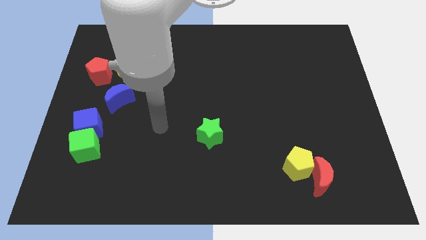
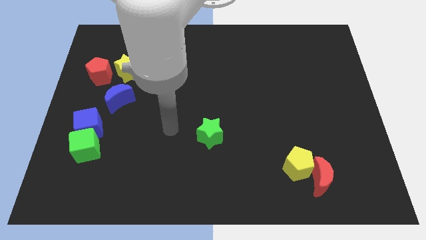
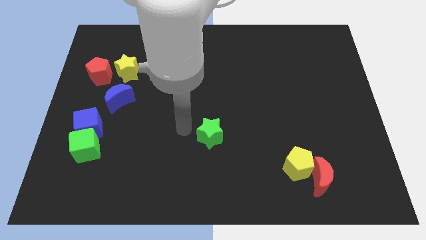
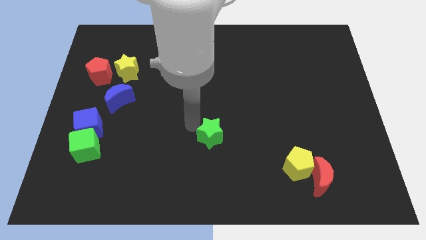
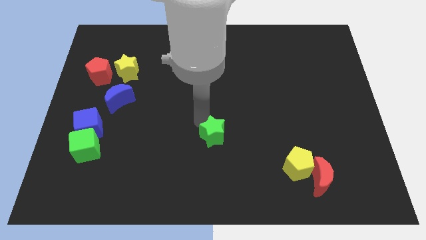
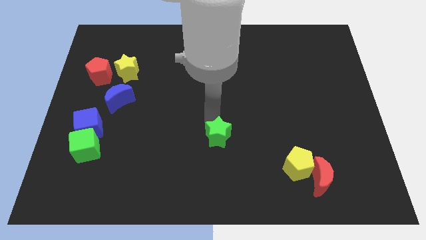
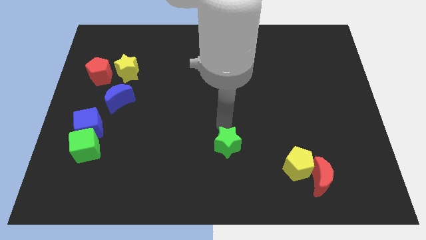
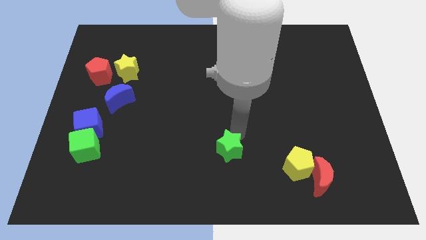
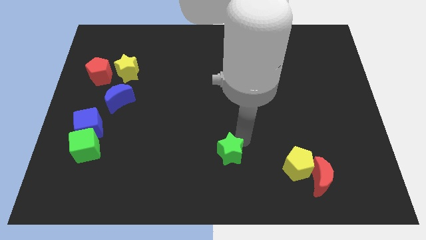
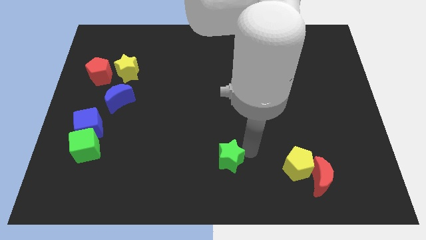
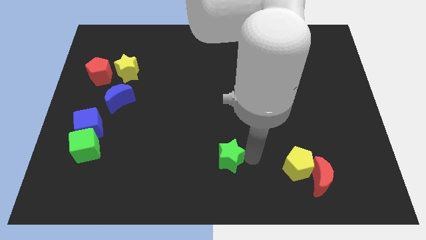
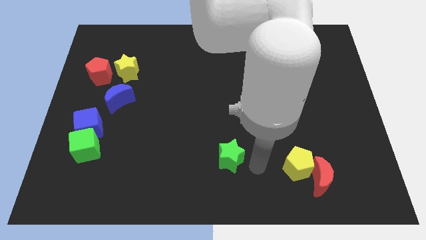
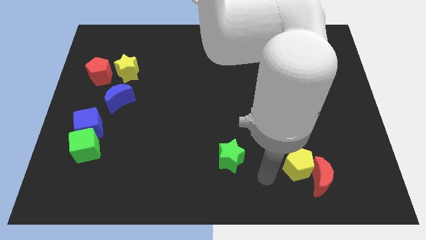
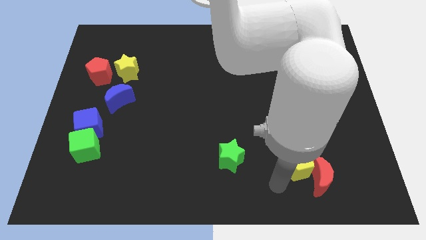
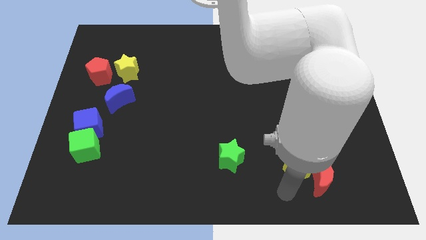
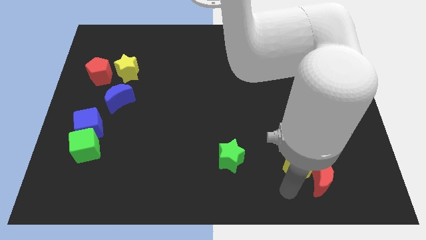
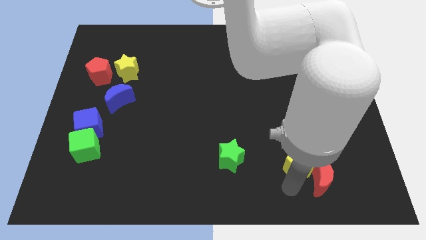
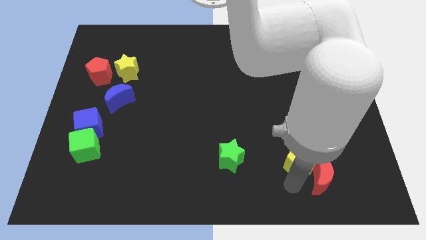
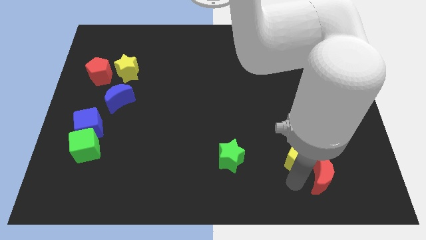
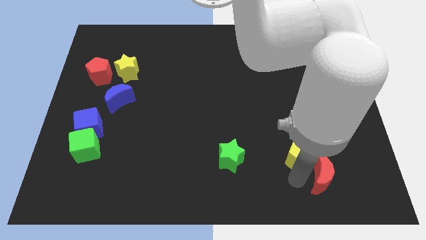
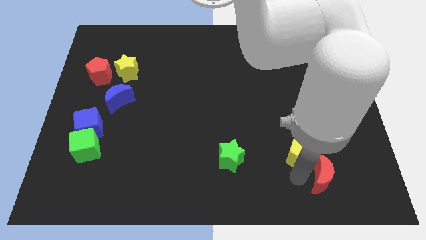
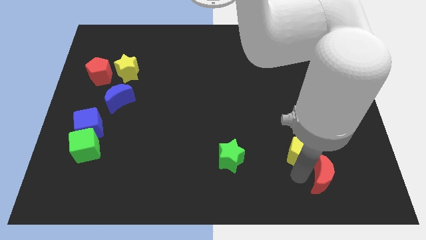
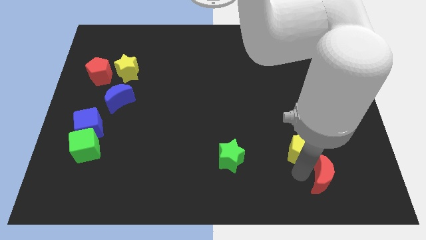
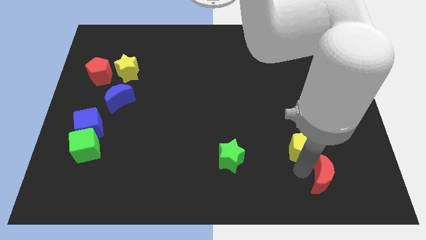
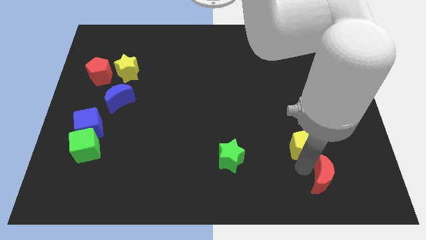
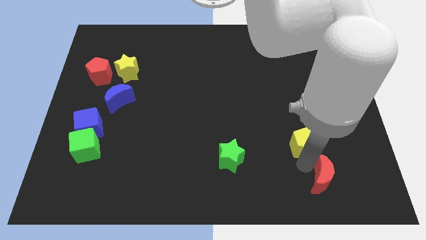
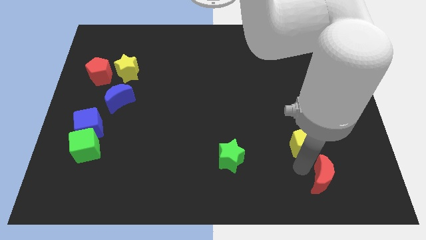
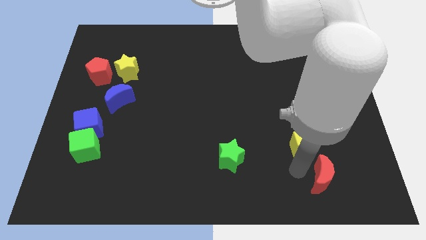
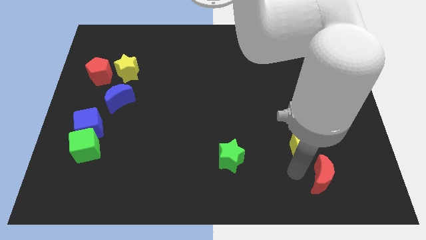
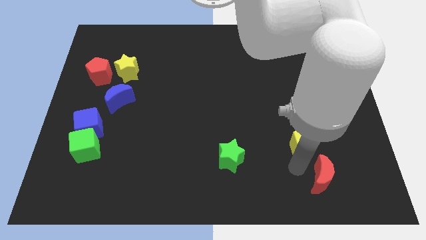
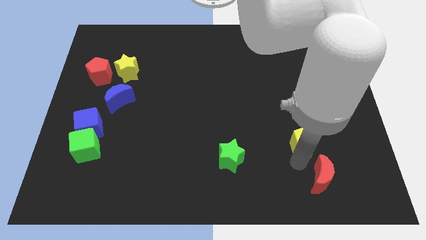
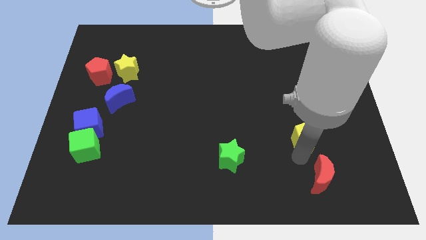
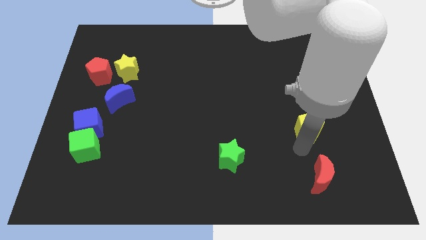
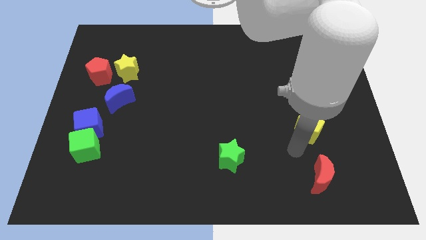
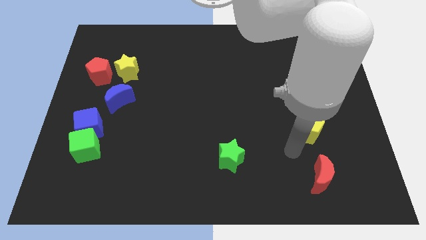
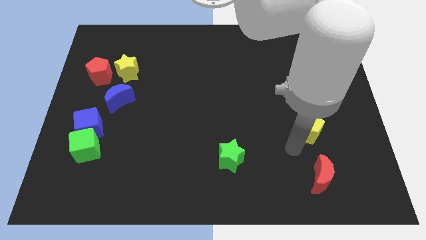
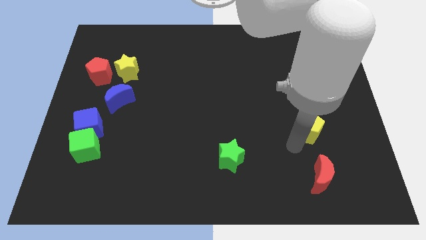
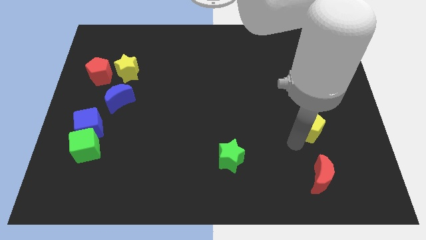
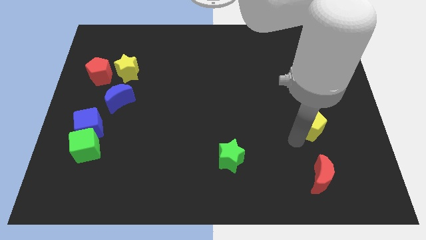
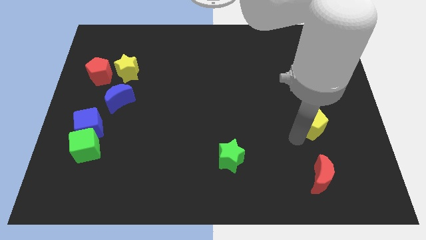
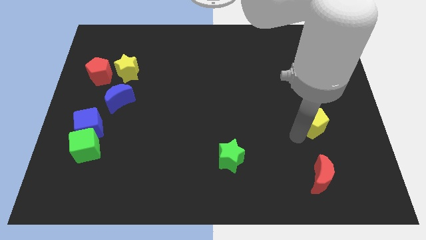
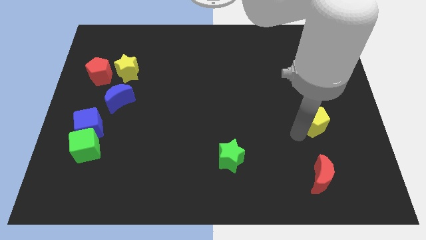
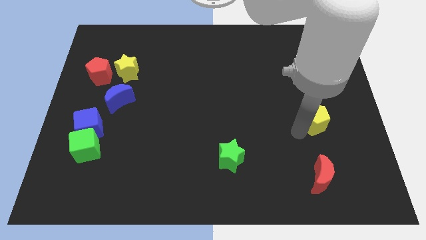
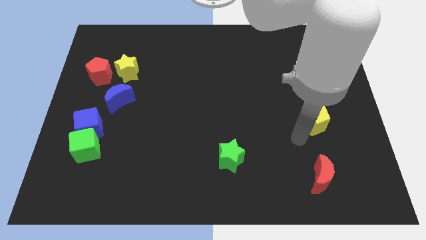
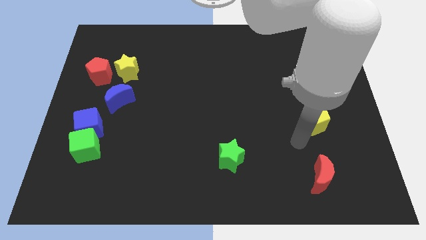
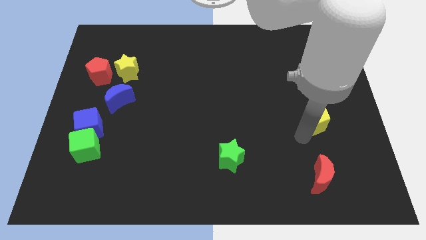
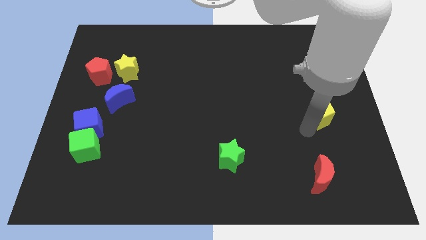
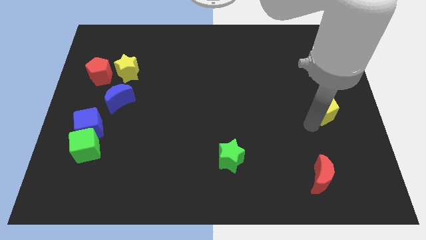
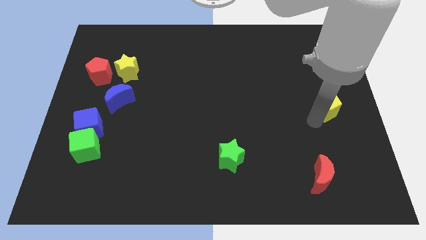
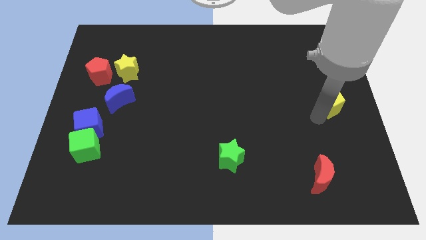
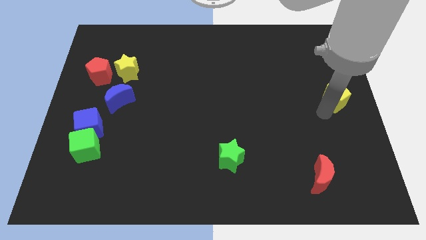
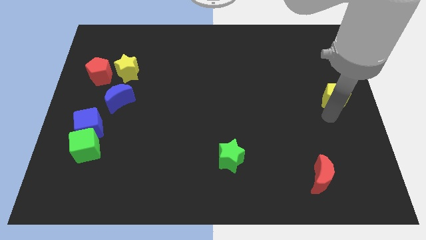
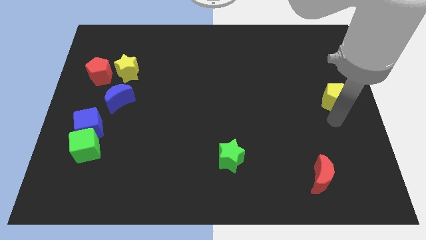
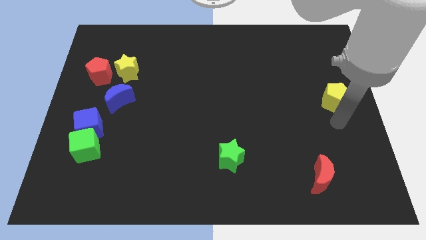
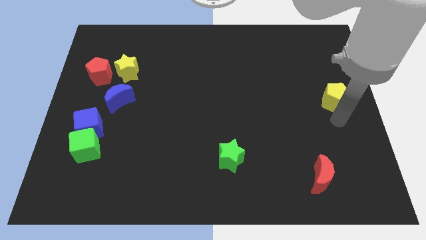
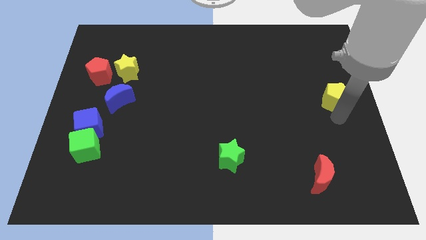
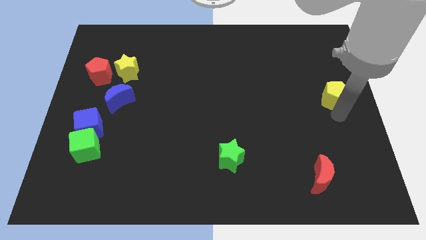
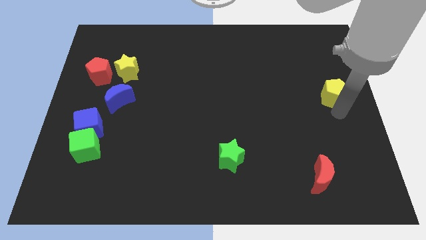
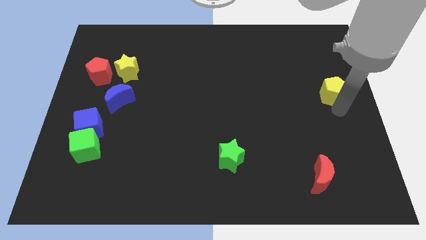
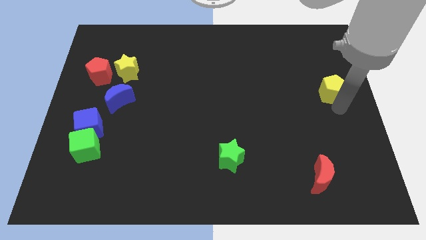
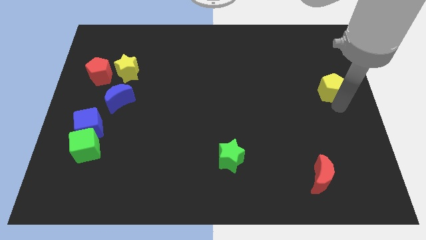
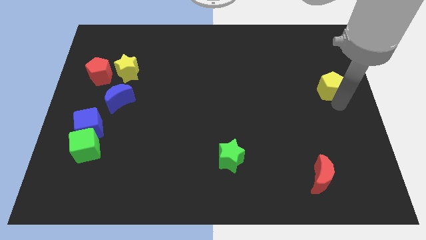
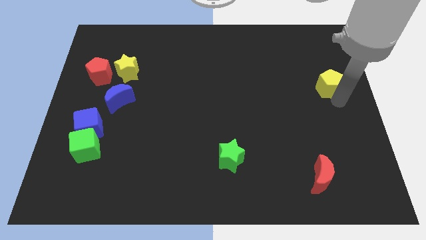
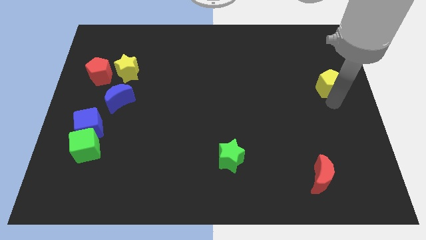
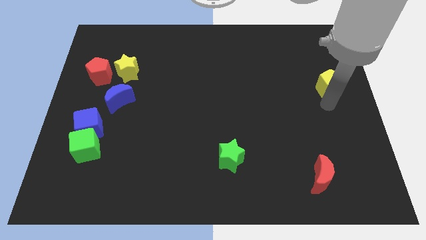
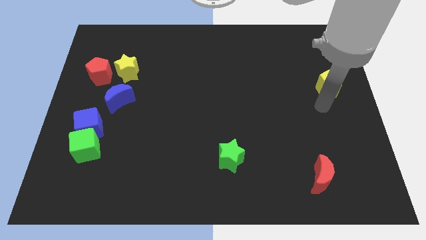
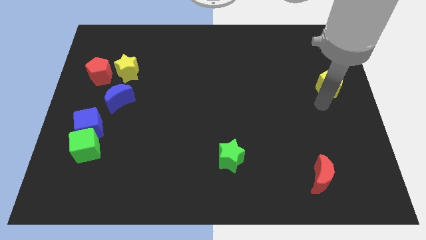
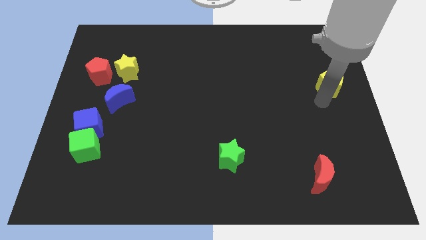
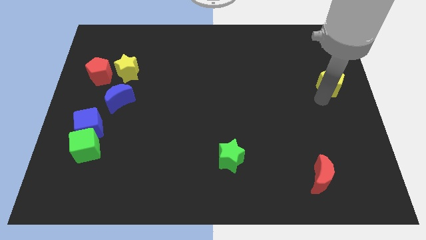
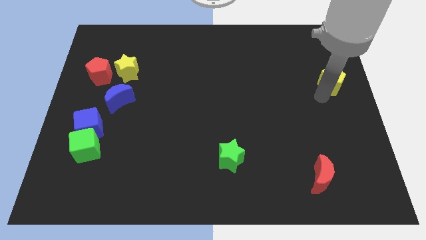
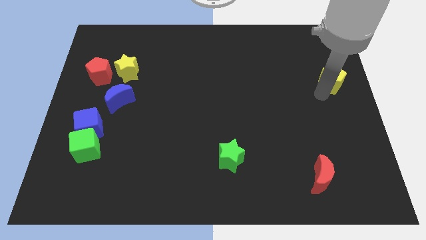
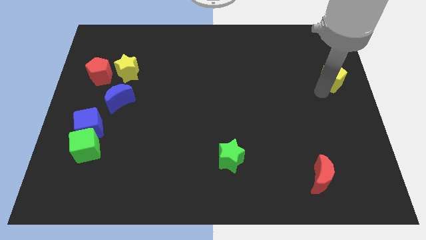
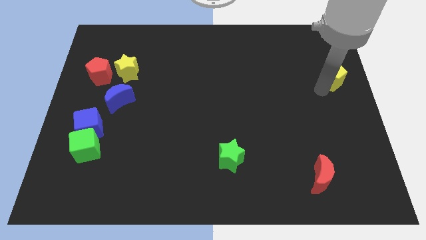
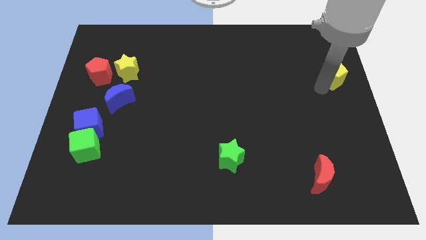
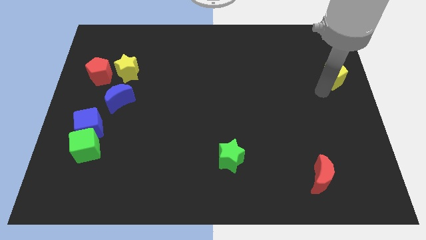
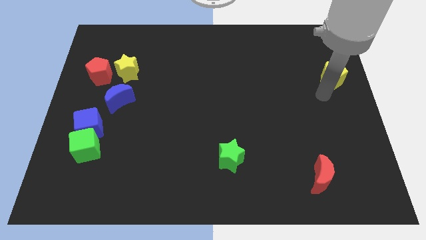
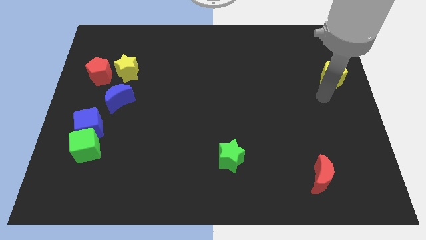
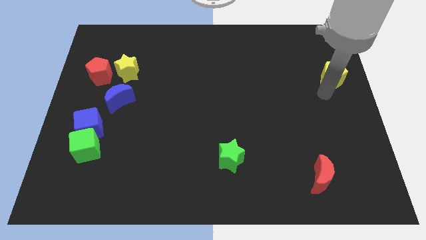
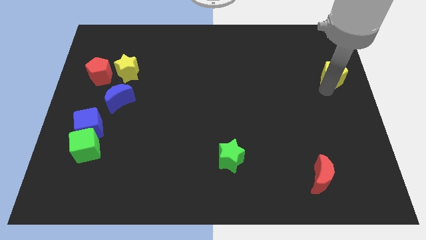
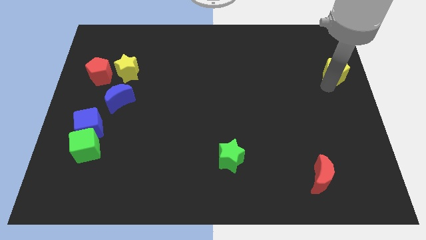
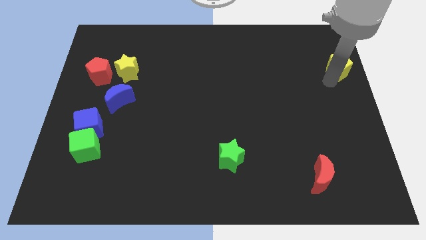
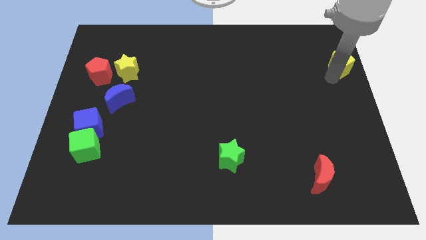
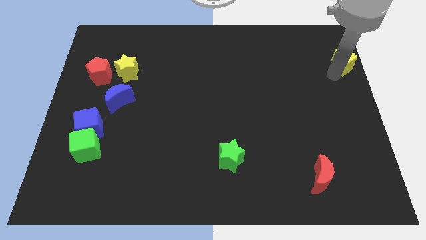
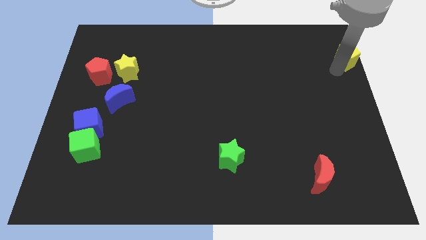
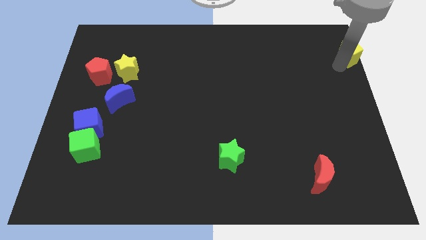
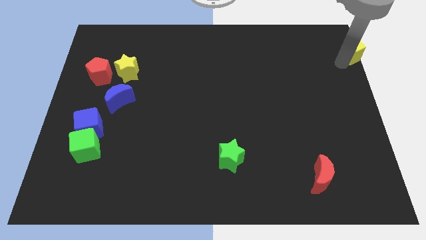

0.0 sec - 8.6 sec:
put the yellow pentagon to the top right of the board
